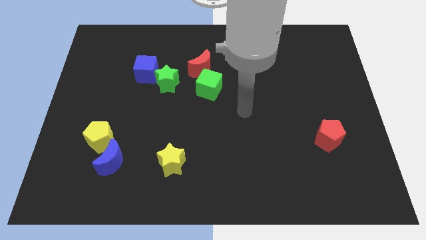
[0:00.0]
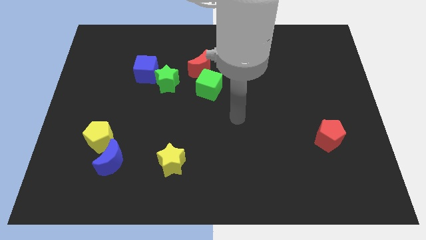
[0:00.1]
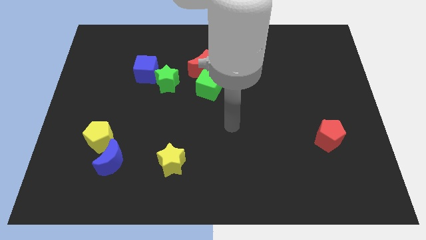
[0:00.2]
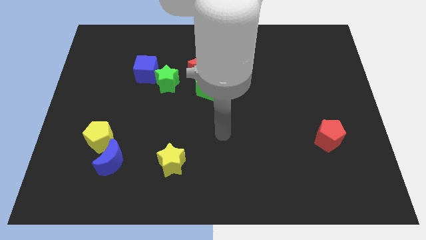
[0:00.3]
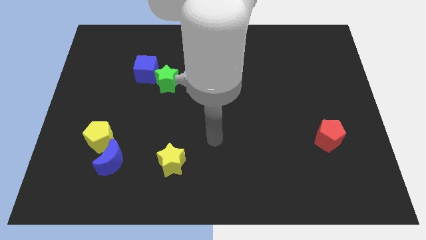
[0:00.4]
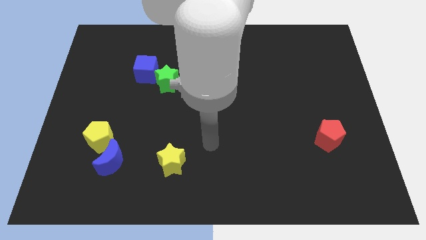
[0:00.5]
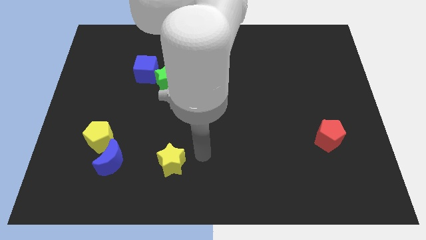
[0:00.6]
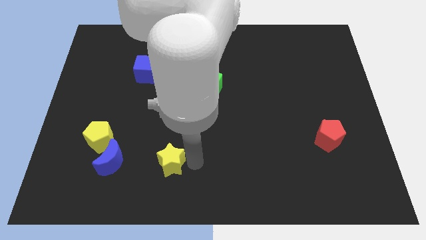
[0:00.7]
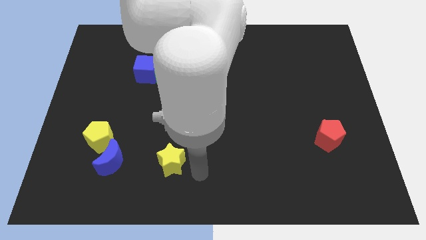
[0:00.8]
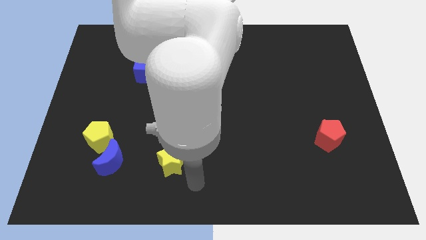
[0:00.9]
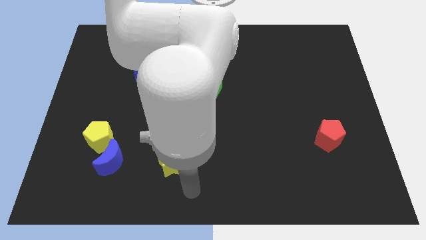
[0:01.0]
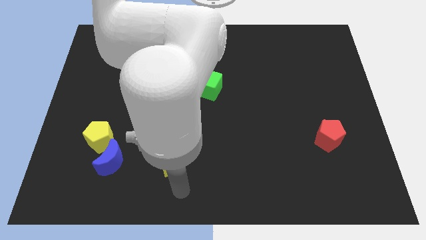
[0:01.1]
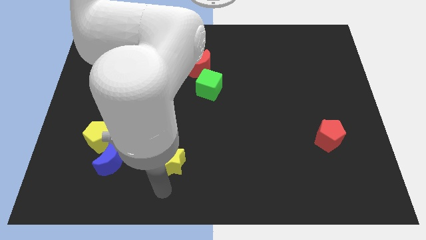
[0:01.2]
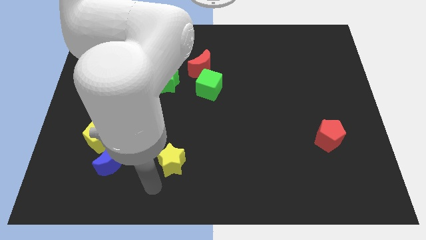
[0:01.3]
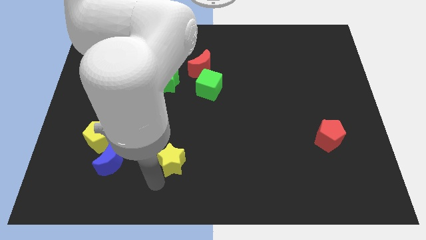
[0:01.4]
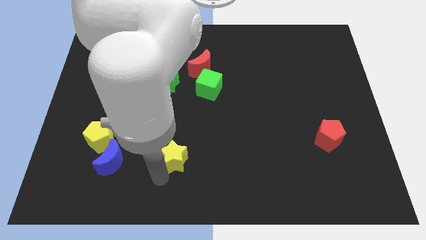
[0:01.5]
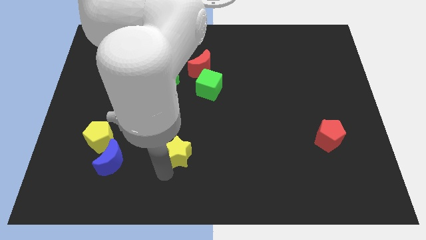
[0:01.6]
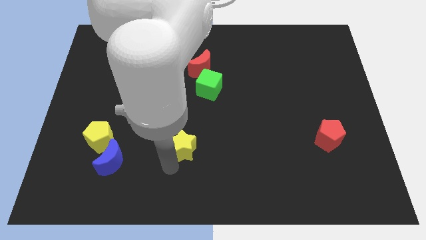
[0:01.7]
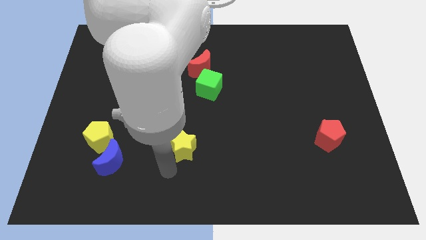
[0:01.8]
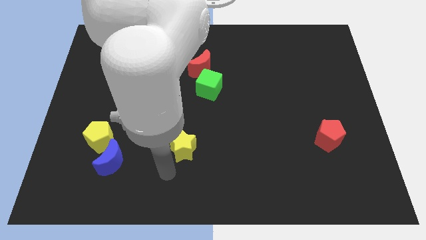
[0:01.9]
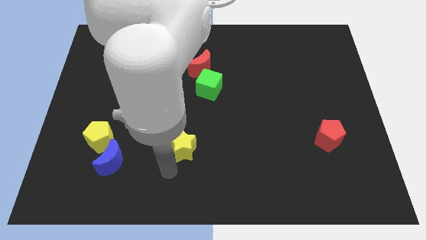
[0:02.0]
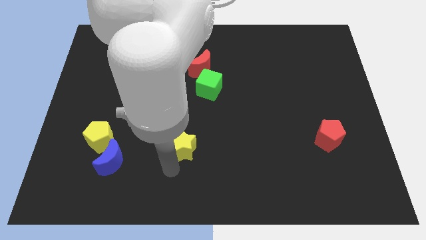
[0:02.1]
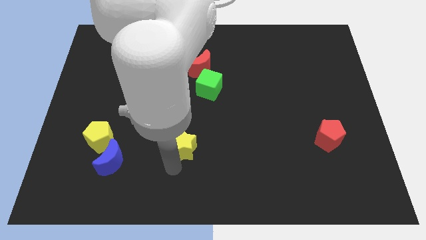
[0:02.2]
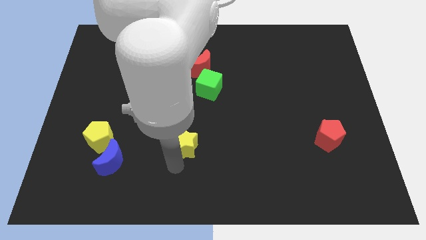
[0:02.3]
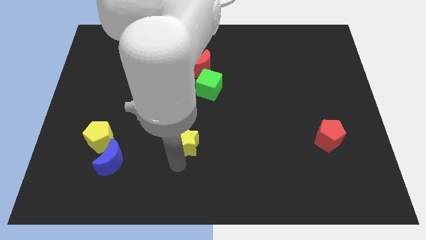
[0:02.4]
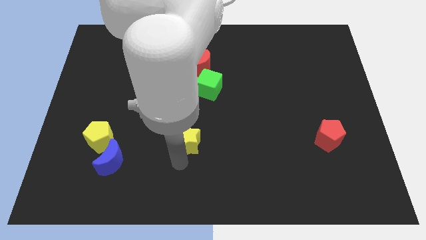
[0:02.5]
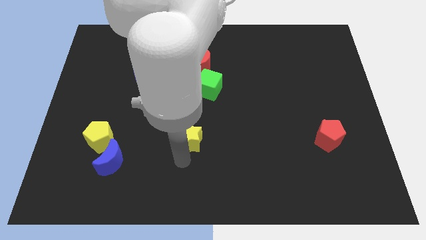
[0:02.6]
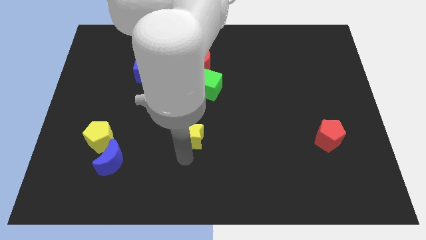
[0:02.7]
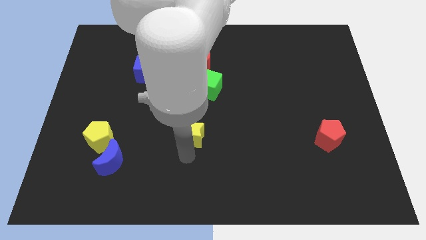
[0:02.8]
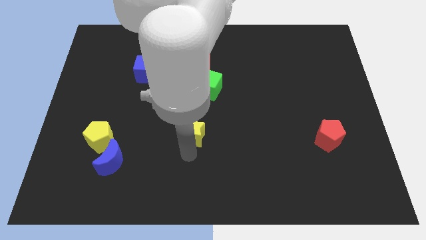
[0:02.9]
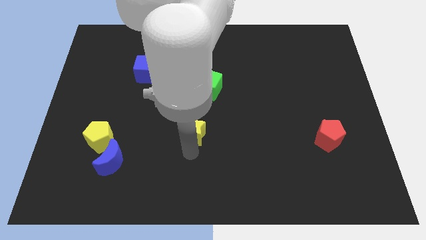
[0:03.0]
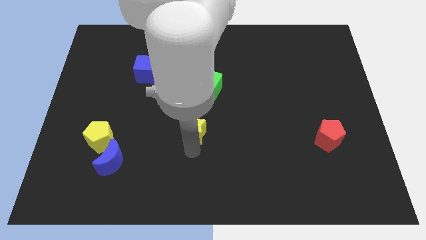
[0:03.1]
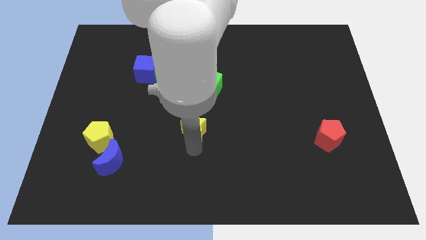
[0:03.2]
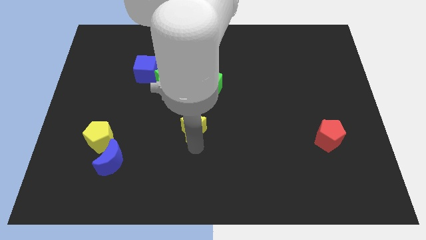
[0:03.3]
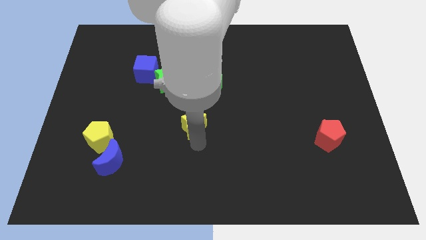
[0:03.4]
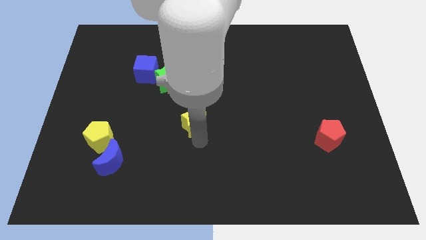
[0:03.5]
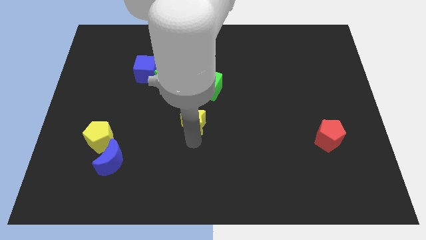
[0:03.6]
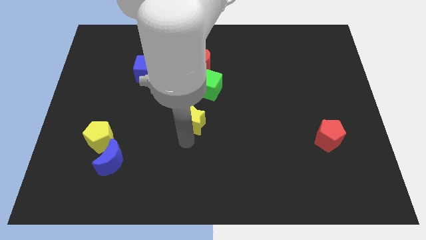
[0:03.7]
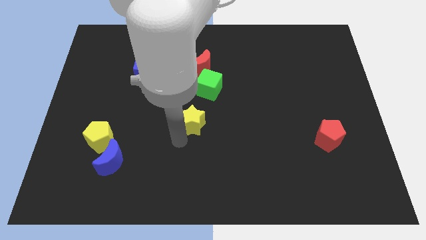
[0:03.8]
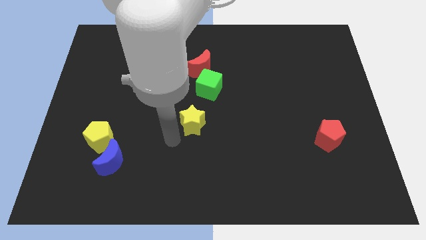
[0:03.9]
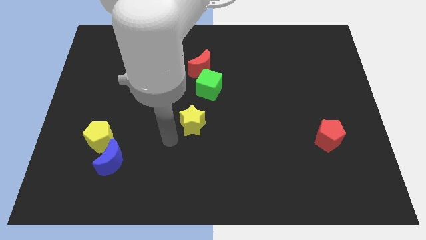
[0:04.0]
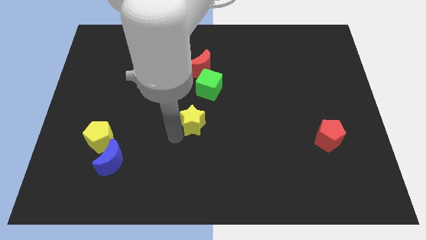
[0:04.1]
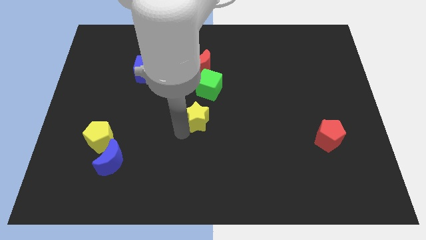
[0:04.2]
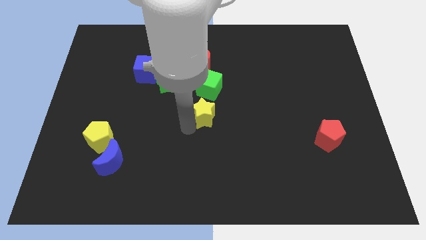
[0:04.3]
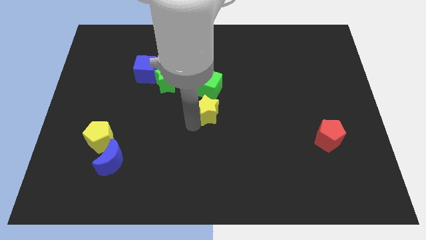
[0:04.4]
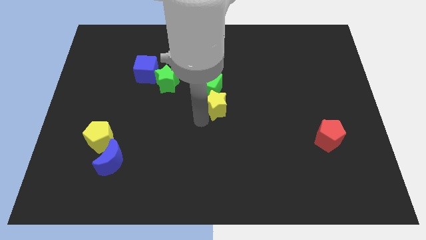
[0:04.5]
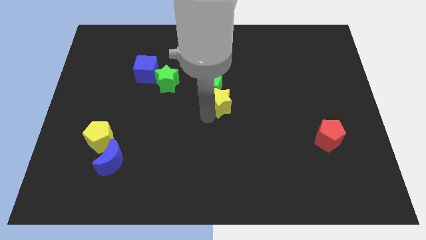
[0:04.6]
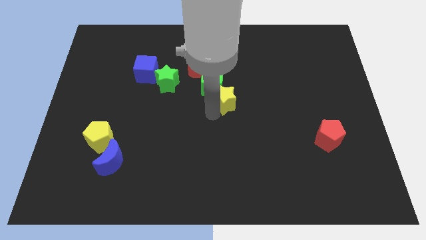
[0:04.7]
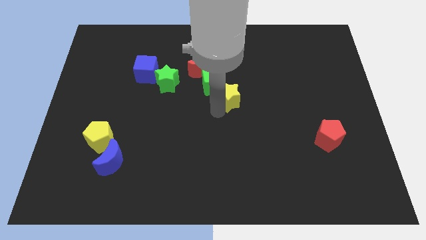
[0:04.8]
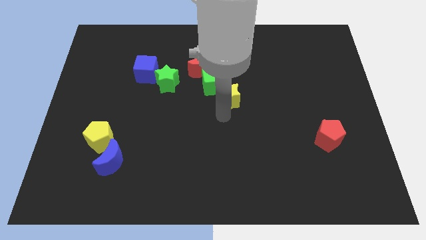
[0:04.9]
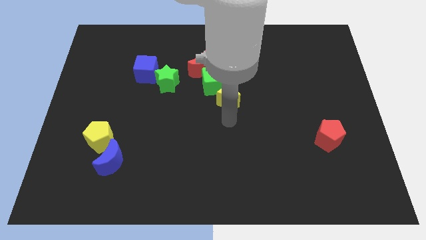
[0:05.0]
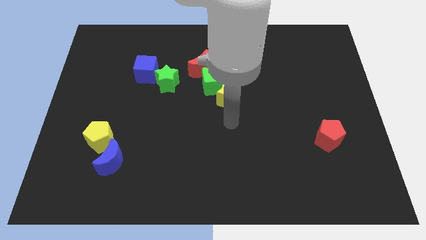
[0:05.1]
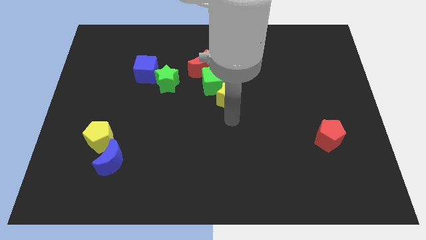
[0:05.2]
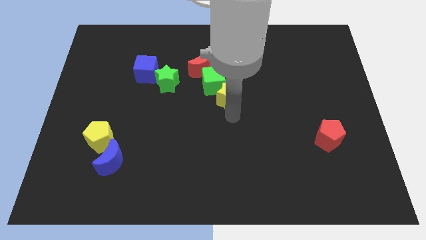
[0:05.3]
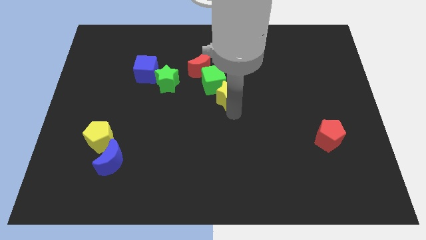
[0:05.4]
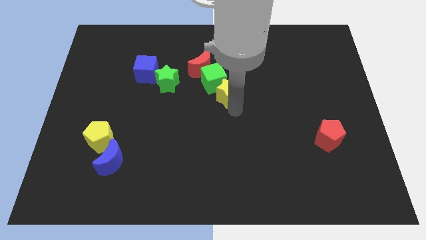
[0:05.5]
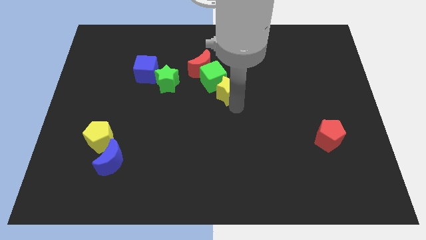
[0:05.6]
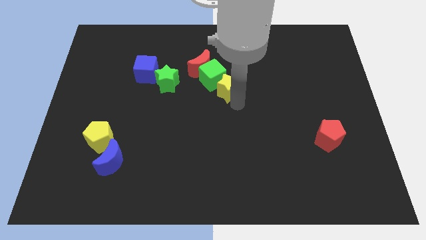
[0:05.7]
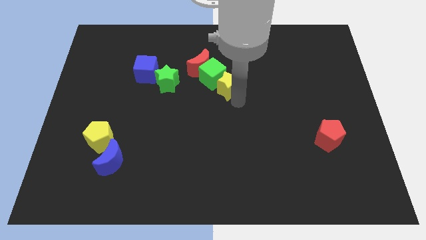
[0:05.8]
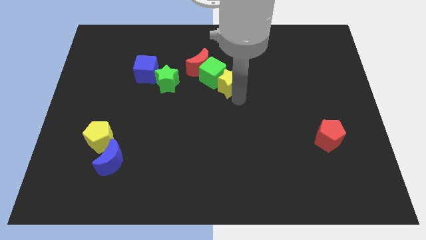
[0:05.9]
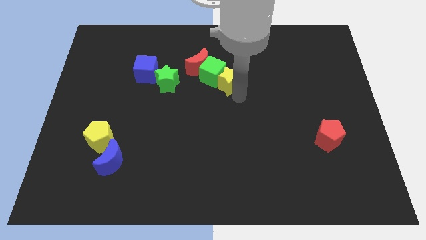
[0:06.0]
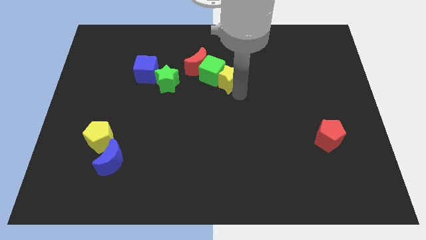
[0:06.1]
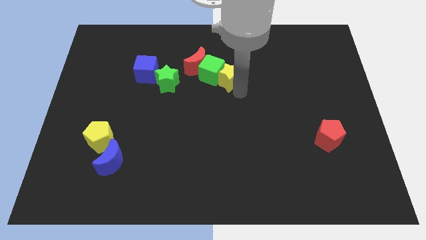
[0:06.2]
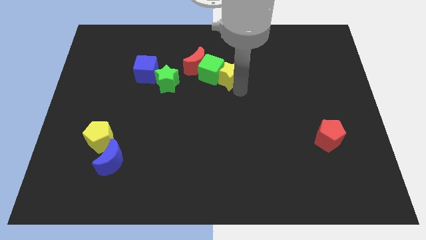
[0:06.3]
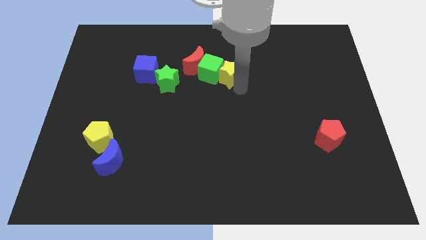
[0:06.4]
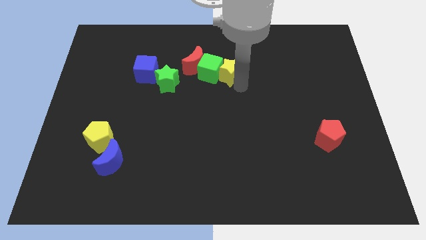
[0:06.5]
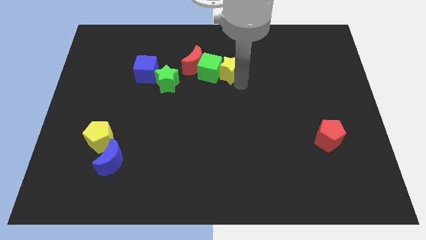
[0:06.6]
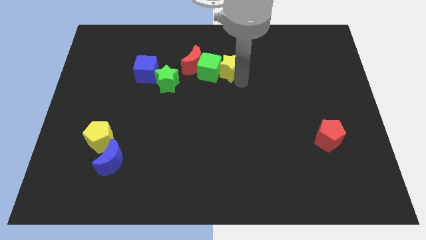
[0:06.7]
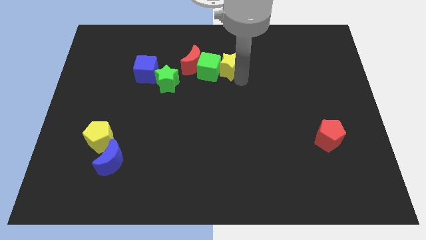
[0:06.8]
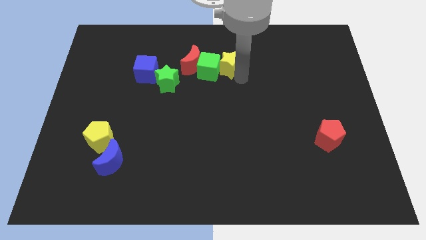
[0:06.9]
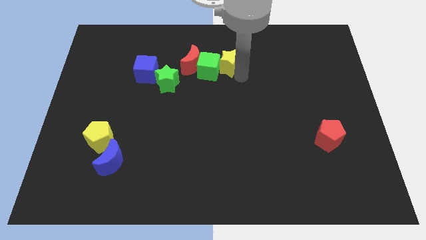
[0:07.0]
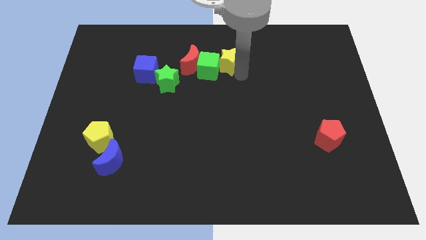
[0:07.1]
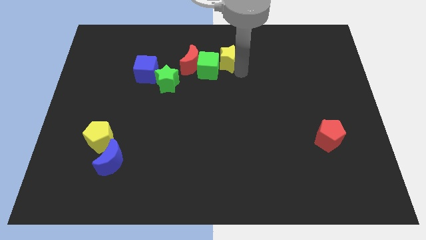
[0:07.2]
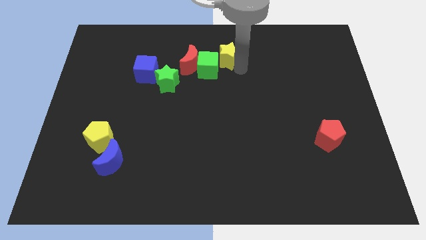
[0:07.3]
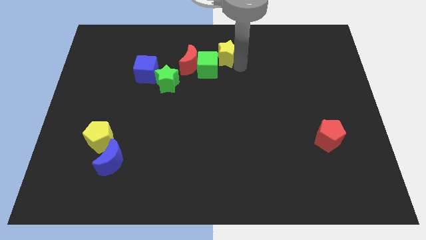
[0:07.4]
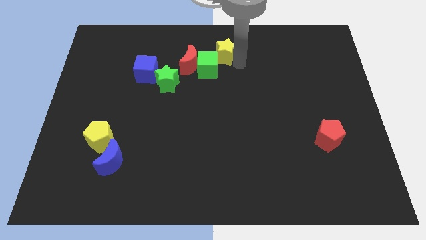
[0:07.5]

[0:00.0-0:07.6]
move the yellow star to the towards your base
